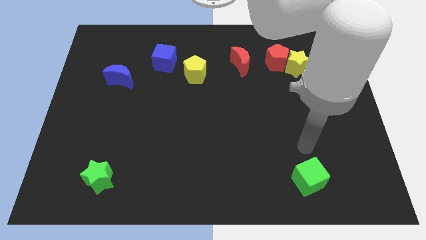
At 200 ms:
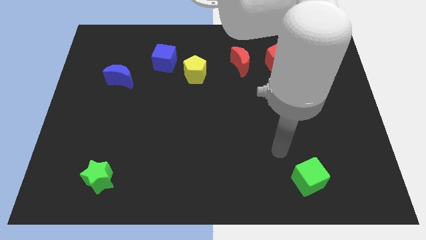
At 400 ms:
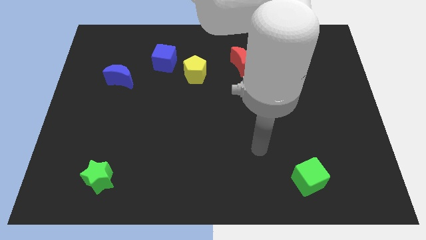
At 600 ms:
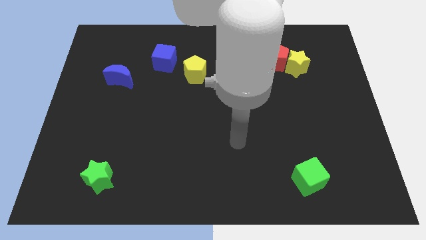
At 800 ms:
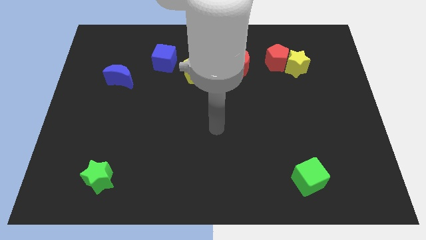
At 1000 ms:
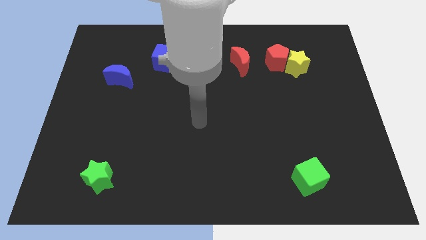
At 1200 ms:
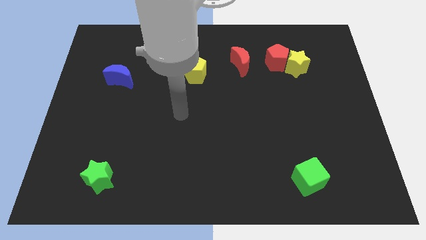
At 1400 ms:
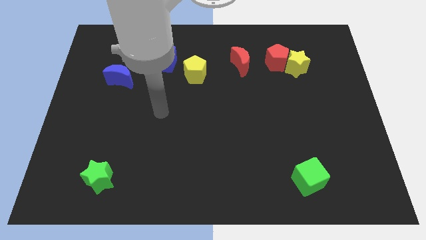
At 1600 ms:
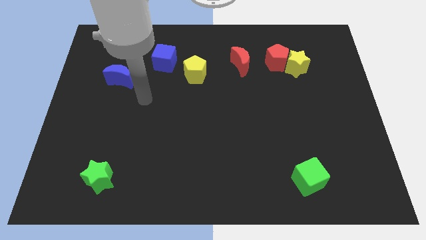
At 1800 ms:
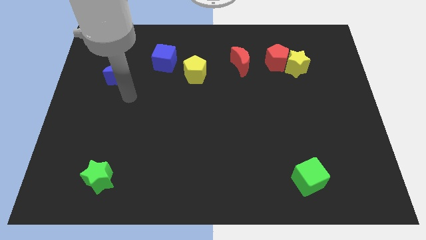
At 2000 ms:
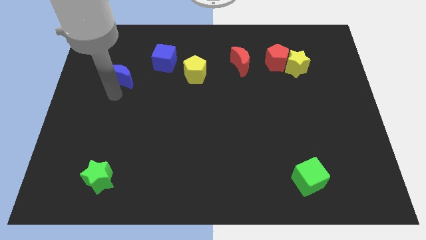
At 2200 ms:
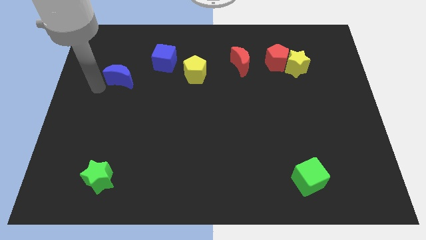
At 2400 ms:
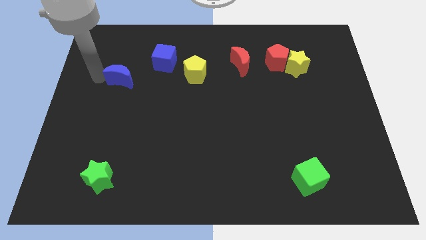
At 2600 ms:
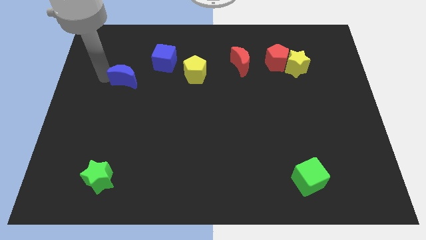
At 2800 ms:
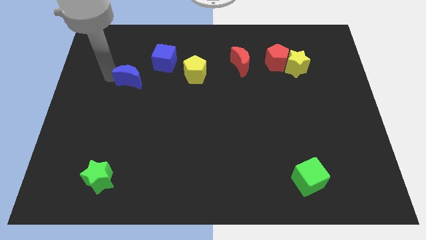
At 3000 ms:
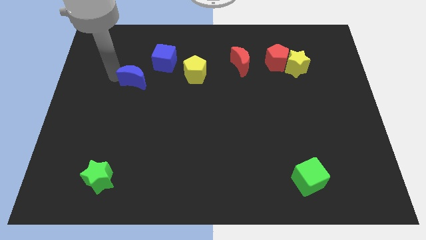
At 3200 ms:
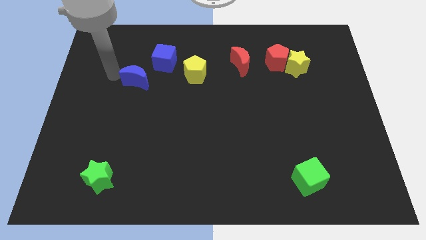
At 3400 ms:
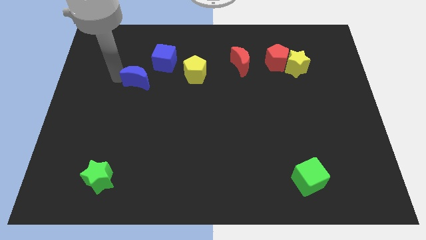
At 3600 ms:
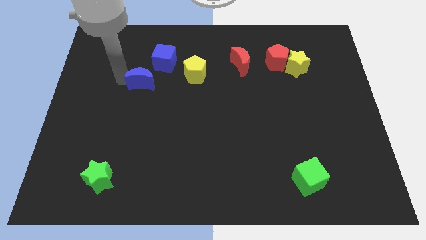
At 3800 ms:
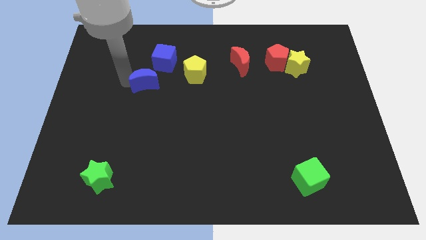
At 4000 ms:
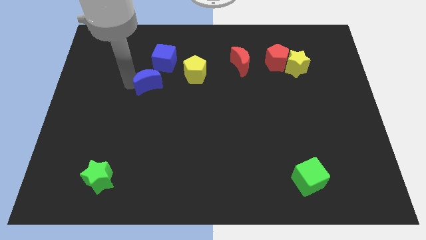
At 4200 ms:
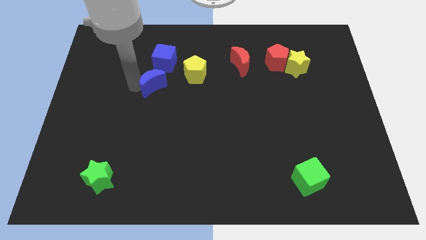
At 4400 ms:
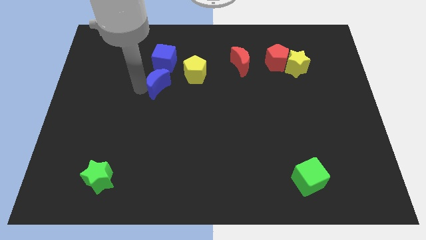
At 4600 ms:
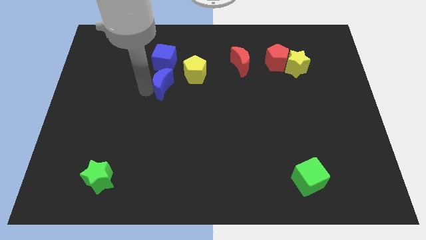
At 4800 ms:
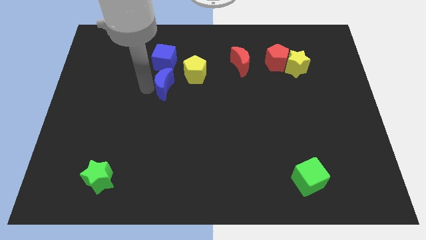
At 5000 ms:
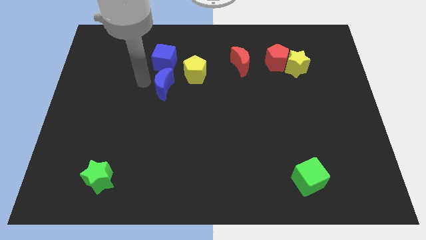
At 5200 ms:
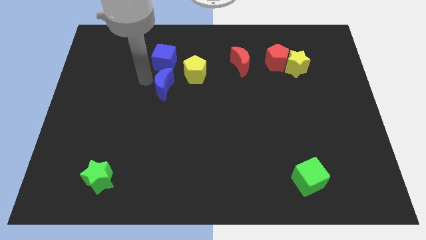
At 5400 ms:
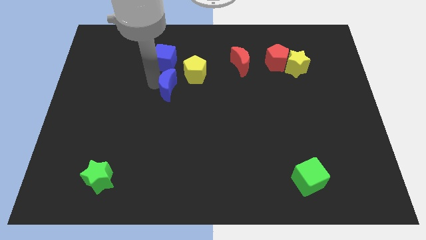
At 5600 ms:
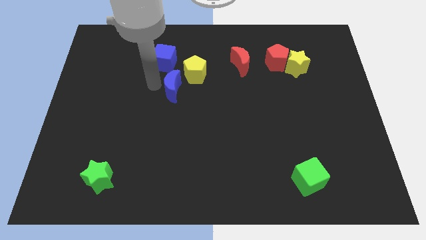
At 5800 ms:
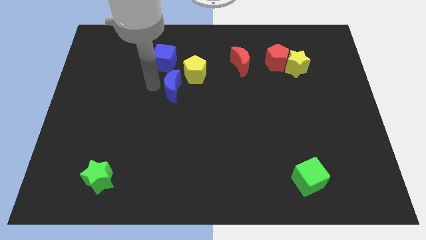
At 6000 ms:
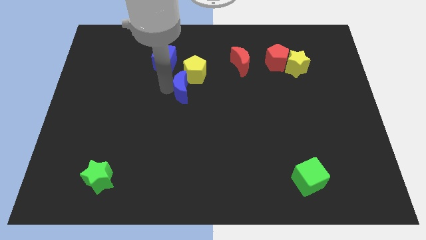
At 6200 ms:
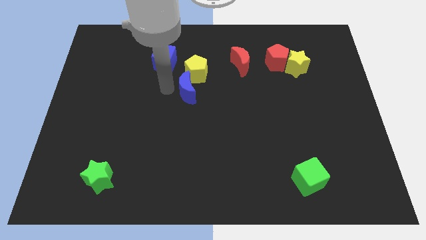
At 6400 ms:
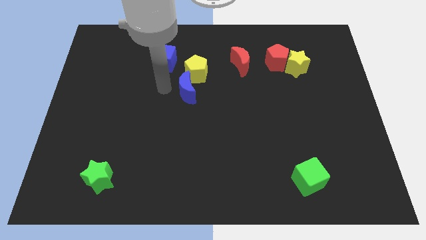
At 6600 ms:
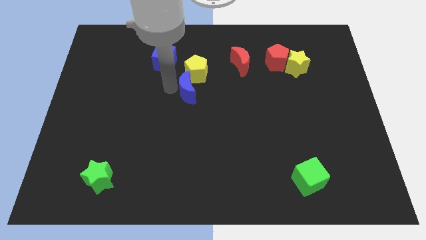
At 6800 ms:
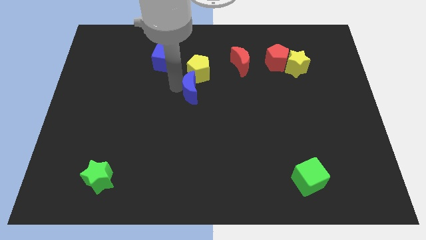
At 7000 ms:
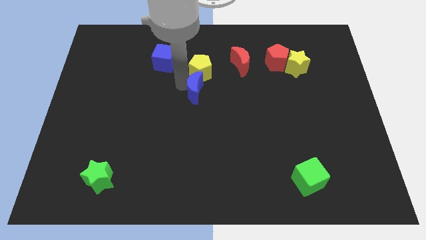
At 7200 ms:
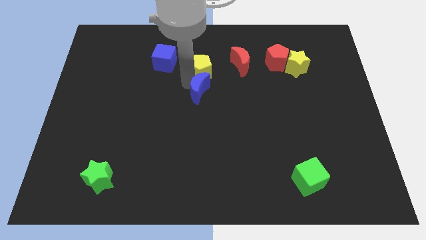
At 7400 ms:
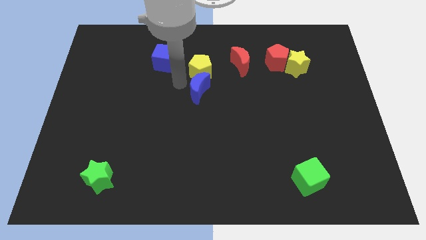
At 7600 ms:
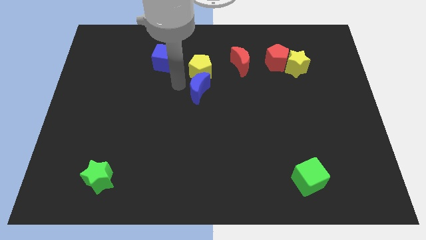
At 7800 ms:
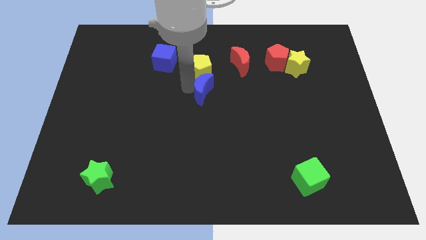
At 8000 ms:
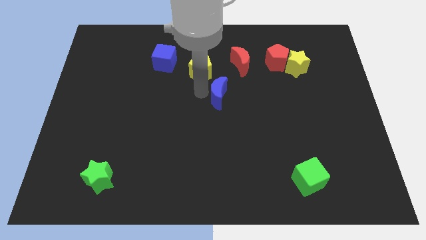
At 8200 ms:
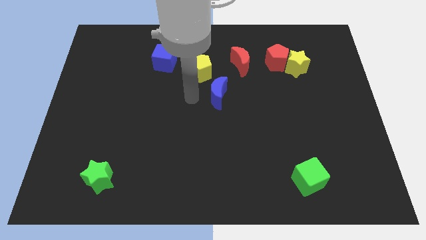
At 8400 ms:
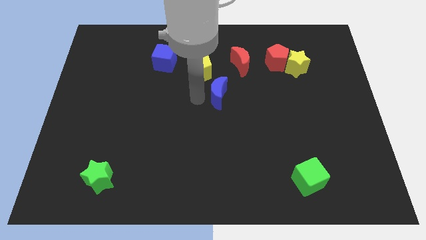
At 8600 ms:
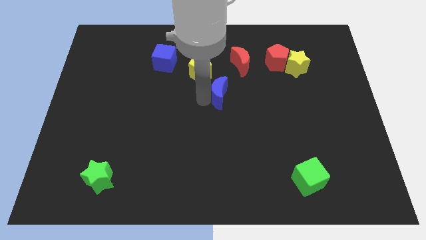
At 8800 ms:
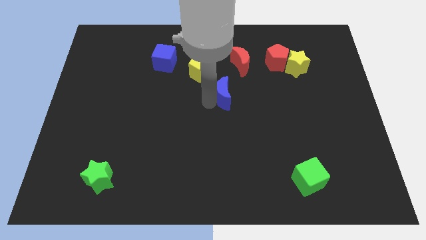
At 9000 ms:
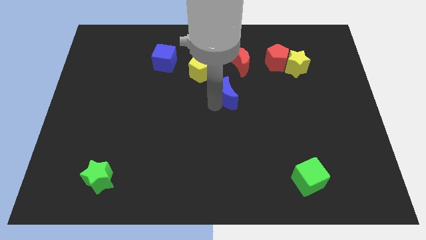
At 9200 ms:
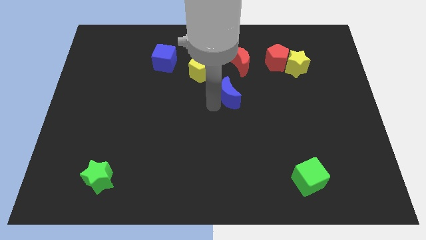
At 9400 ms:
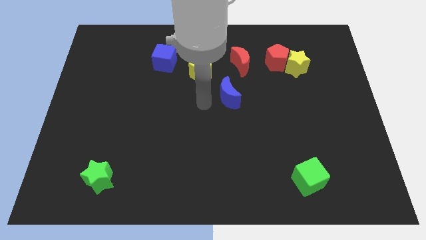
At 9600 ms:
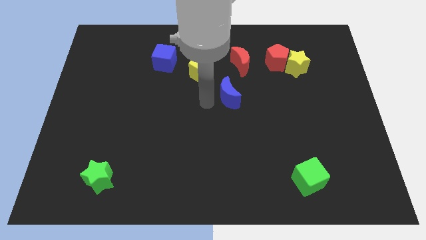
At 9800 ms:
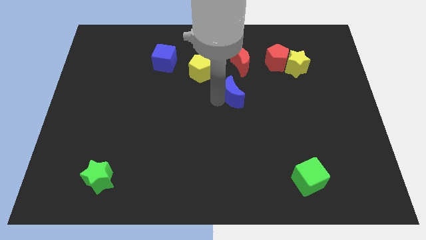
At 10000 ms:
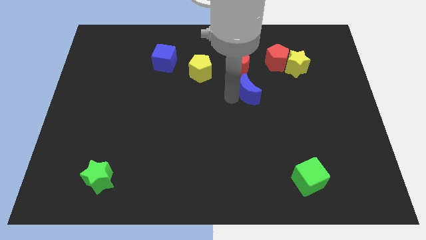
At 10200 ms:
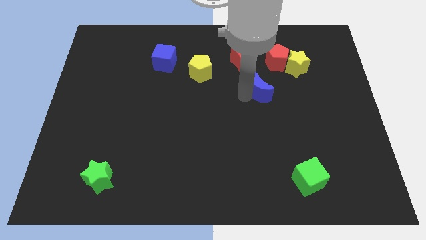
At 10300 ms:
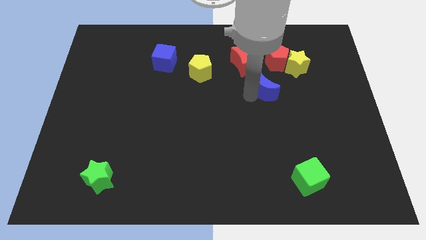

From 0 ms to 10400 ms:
push the blue moon to the bottom left side of the yellow star

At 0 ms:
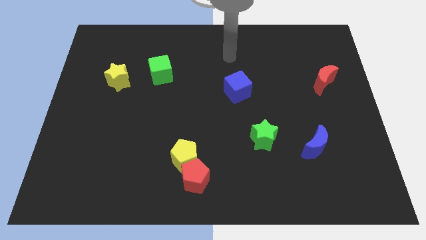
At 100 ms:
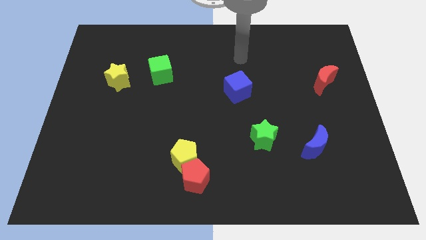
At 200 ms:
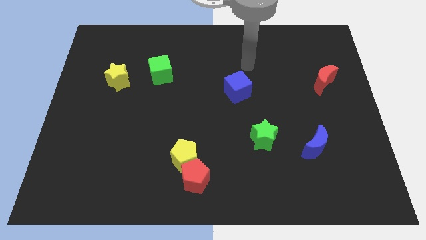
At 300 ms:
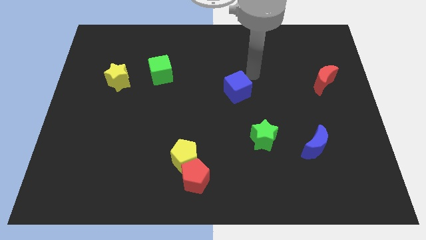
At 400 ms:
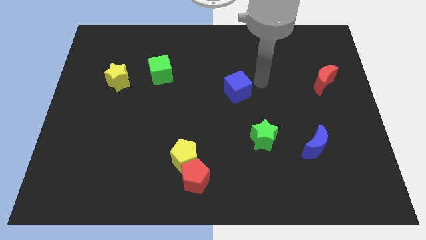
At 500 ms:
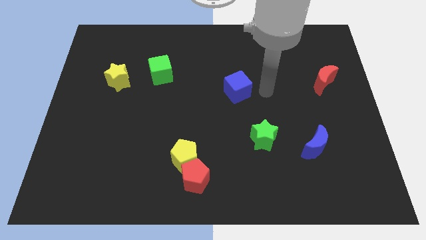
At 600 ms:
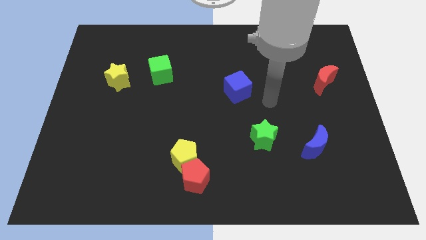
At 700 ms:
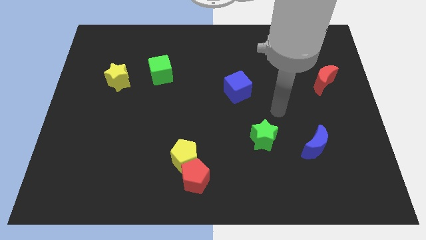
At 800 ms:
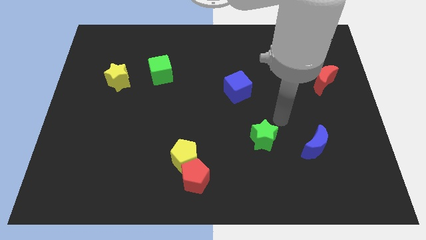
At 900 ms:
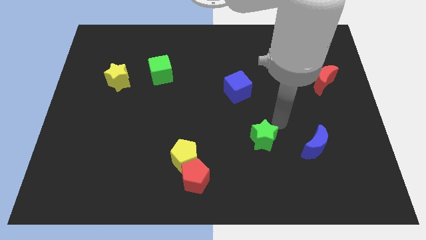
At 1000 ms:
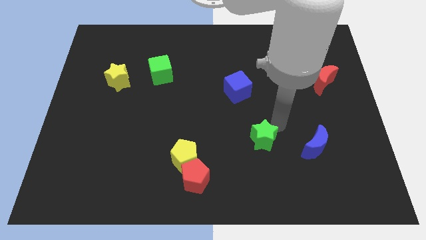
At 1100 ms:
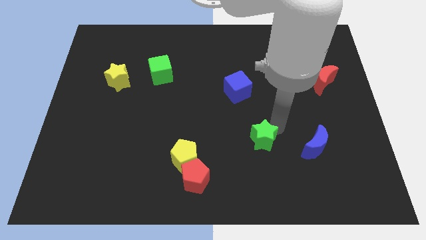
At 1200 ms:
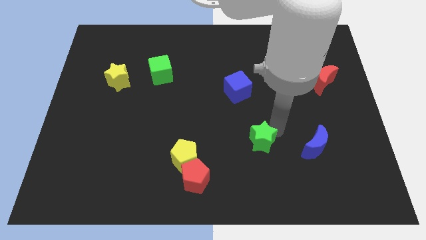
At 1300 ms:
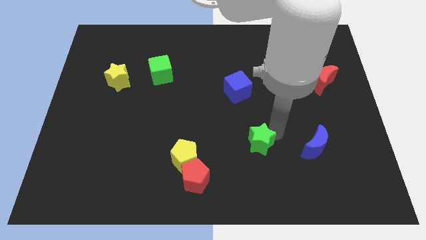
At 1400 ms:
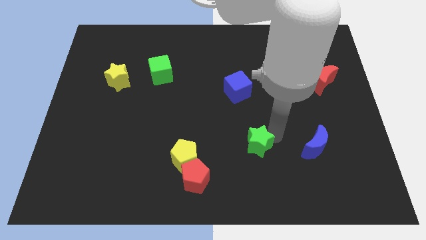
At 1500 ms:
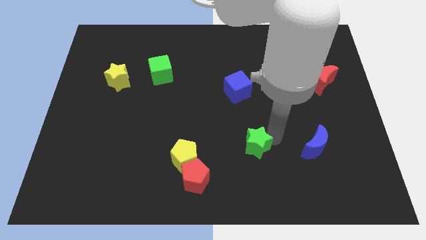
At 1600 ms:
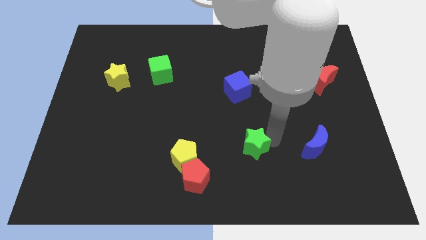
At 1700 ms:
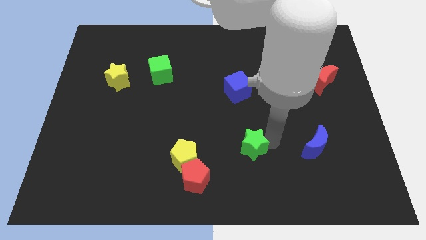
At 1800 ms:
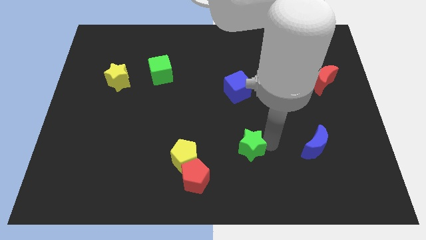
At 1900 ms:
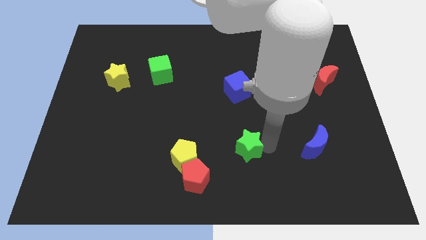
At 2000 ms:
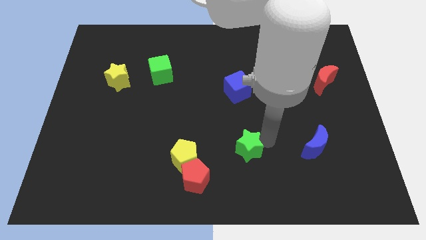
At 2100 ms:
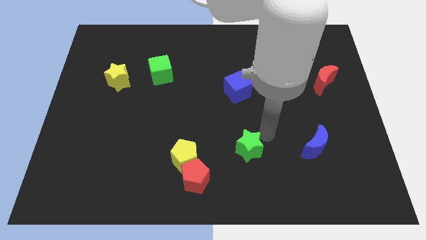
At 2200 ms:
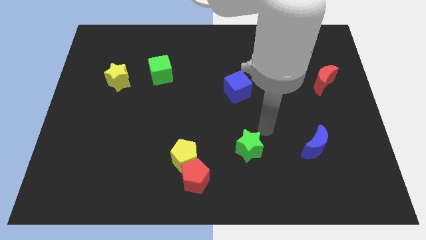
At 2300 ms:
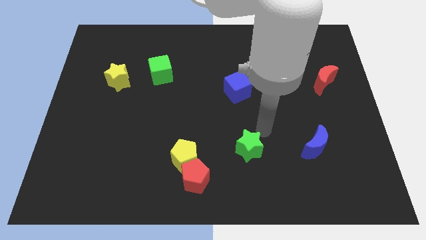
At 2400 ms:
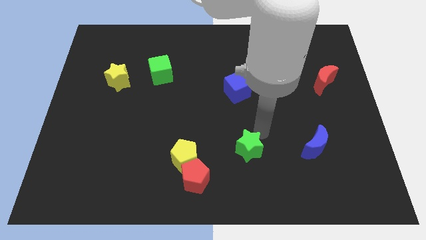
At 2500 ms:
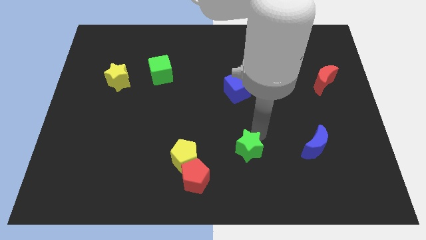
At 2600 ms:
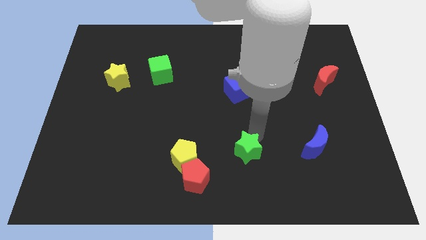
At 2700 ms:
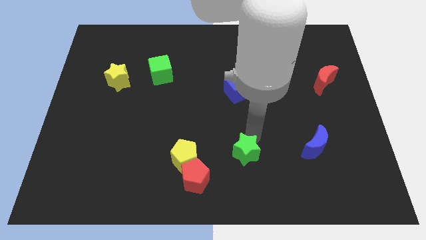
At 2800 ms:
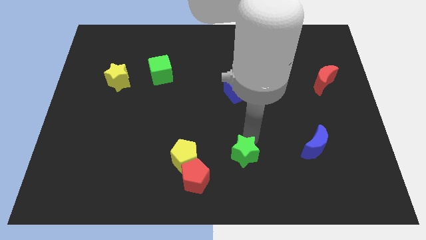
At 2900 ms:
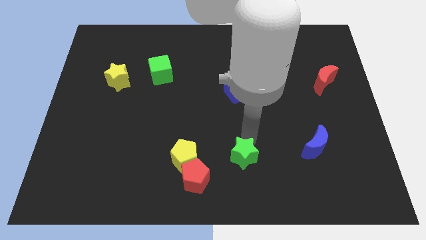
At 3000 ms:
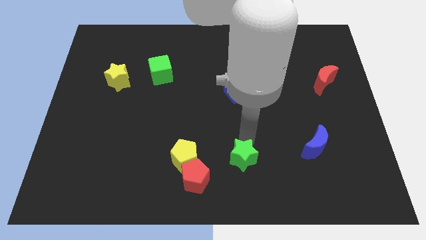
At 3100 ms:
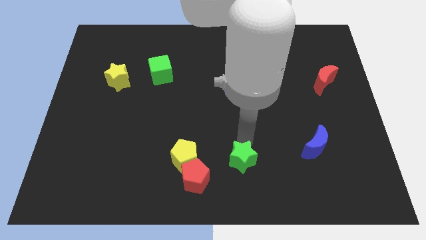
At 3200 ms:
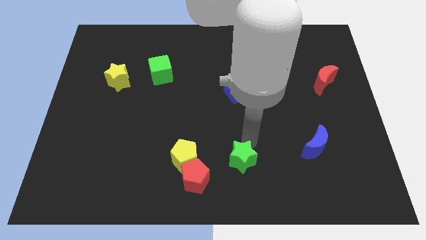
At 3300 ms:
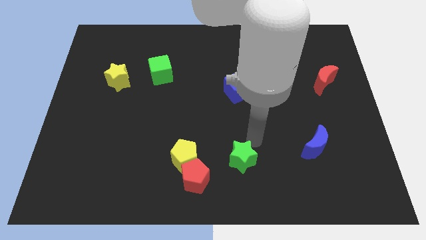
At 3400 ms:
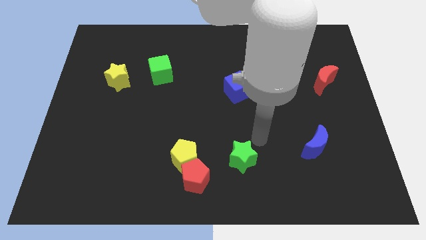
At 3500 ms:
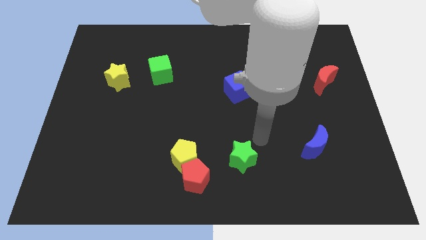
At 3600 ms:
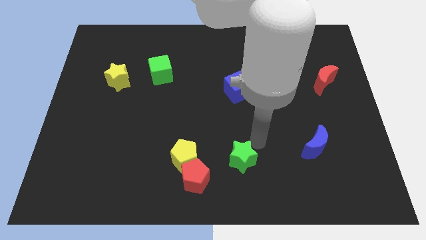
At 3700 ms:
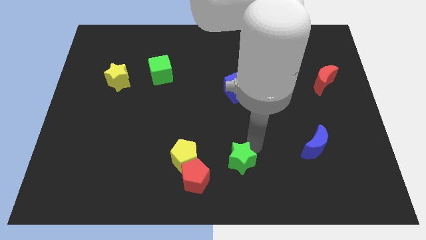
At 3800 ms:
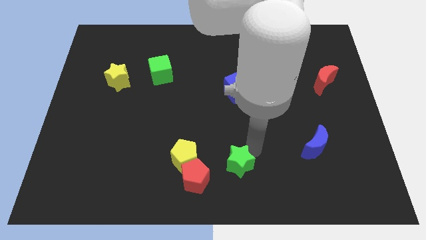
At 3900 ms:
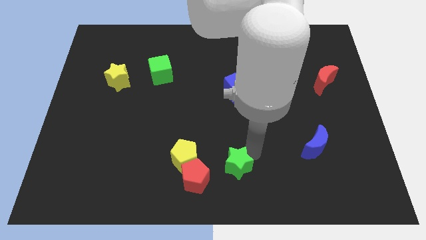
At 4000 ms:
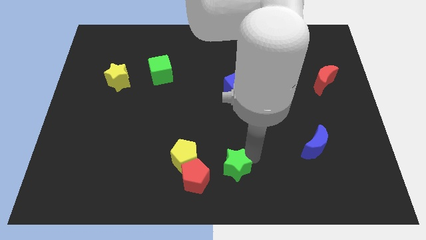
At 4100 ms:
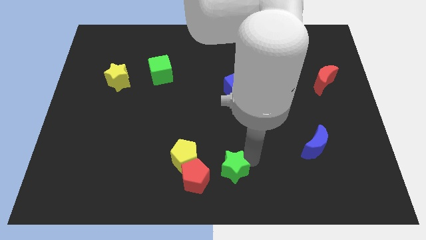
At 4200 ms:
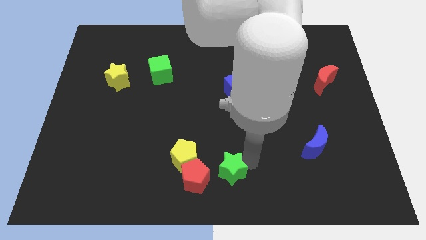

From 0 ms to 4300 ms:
slide the green star to the bottom right side of the yellow pentagon
